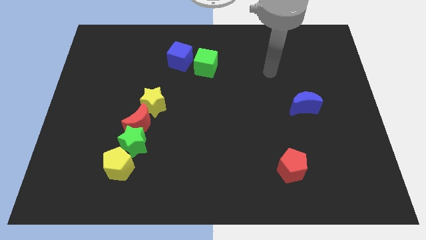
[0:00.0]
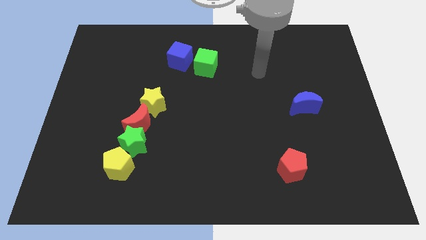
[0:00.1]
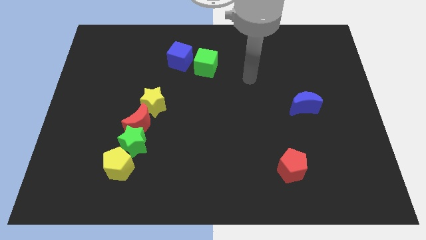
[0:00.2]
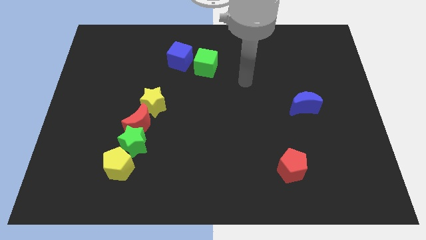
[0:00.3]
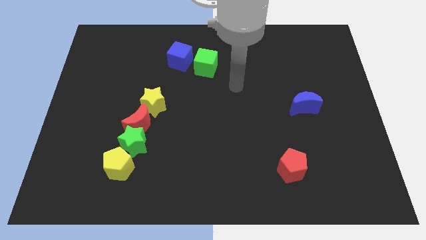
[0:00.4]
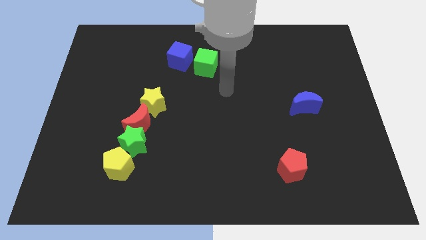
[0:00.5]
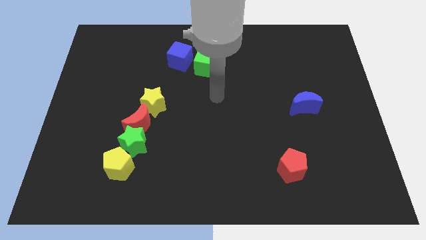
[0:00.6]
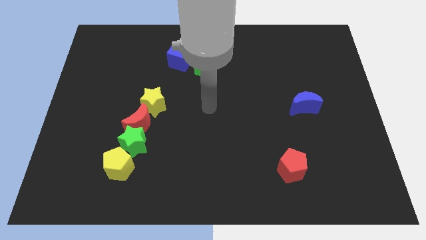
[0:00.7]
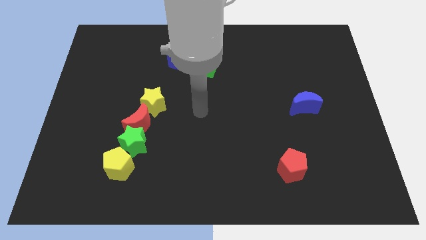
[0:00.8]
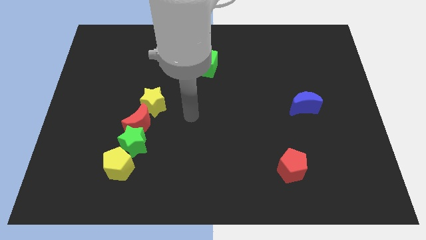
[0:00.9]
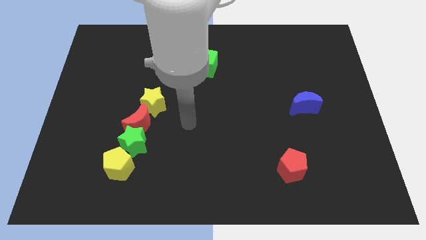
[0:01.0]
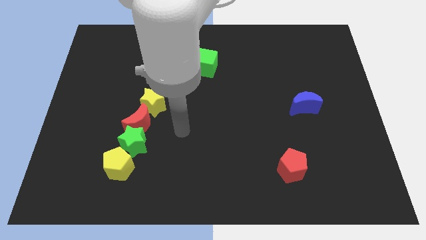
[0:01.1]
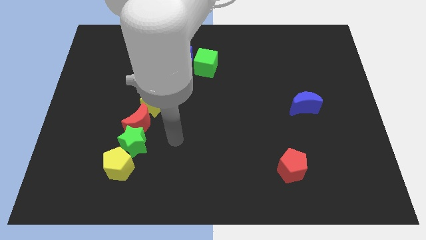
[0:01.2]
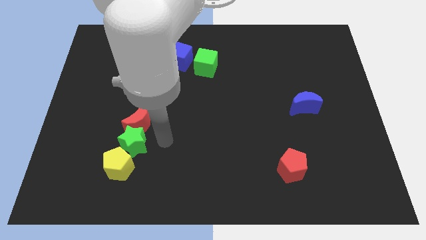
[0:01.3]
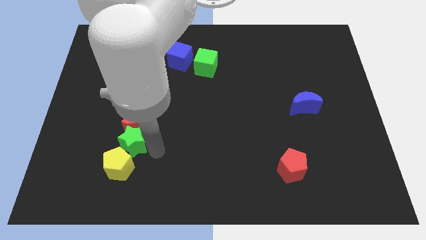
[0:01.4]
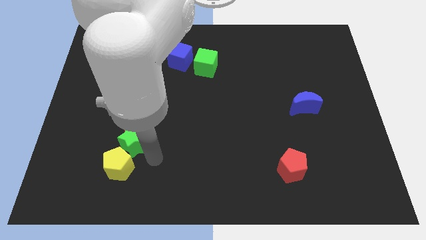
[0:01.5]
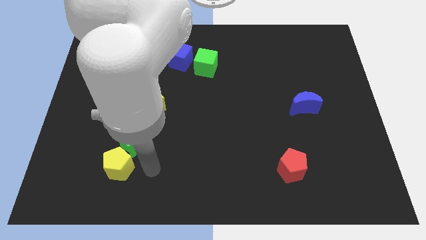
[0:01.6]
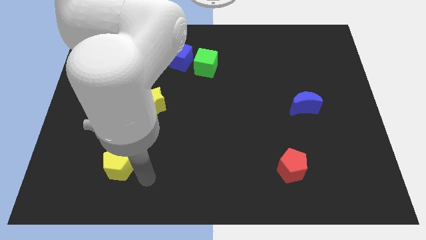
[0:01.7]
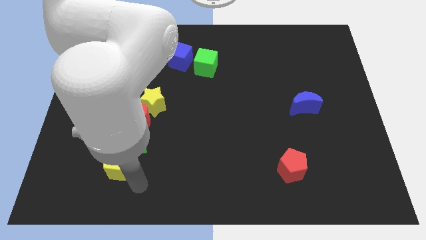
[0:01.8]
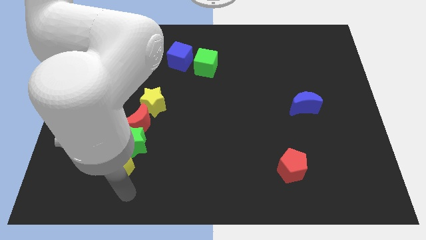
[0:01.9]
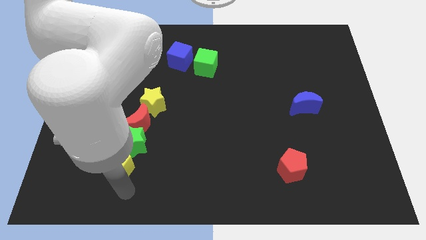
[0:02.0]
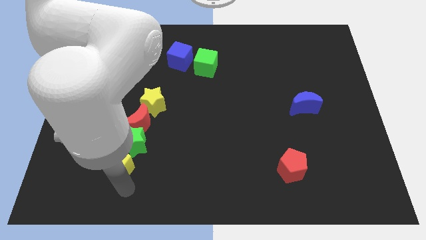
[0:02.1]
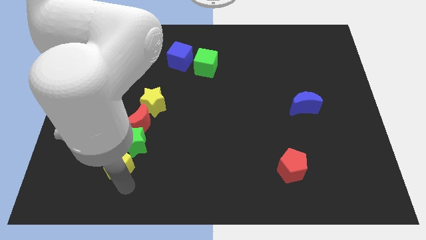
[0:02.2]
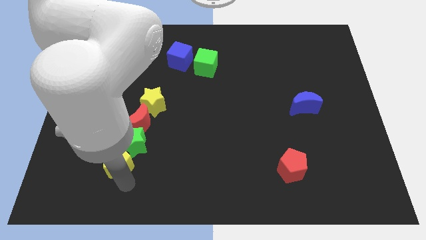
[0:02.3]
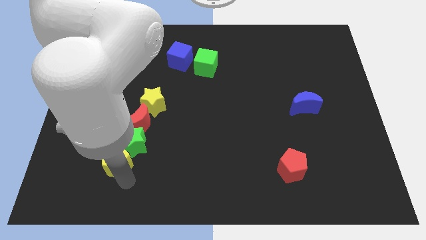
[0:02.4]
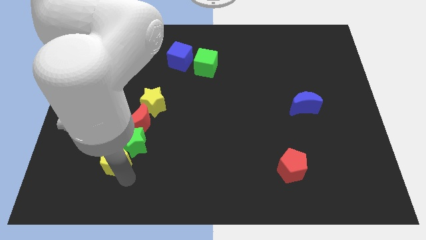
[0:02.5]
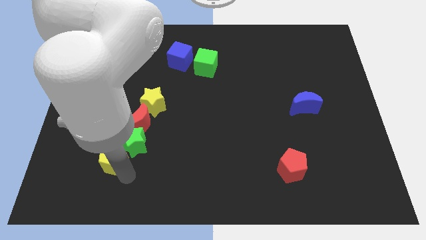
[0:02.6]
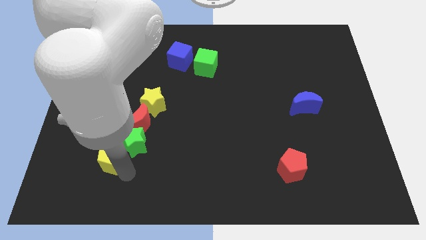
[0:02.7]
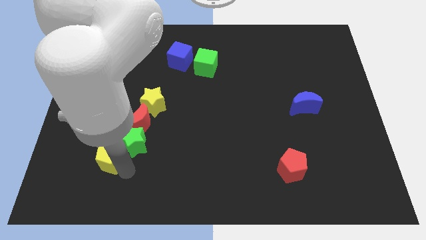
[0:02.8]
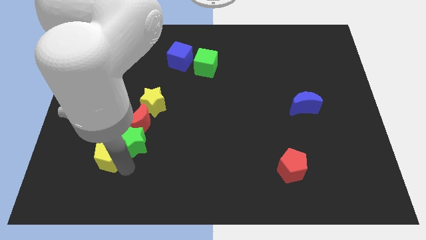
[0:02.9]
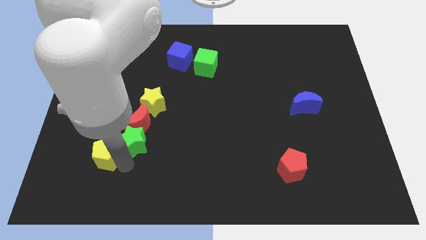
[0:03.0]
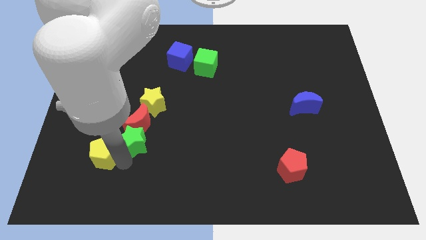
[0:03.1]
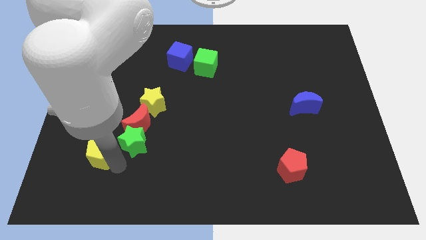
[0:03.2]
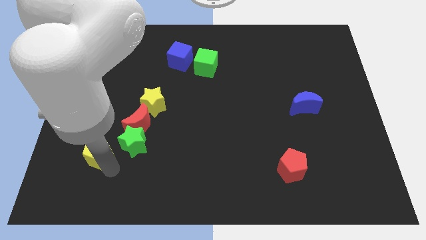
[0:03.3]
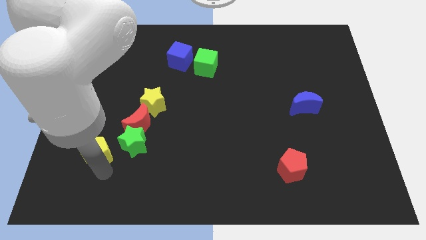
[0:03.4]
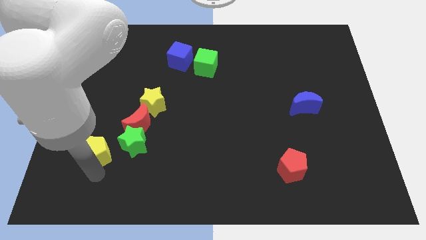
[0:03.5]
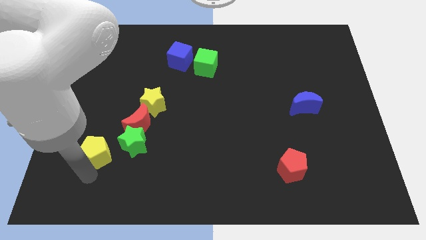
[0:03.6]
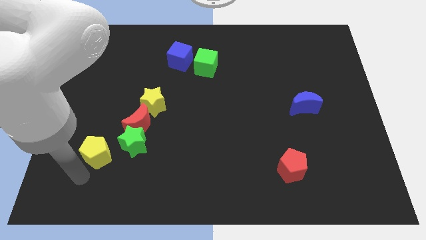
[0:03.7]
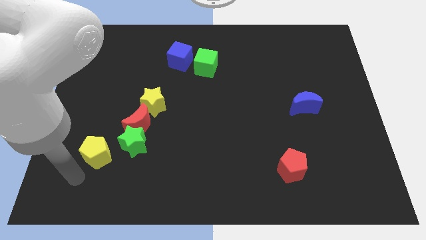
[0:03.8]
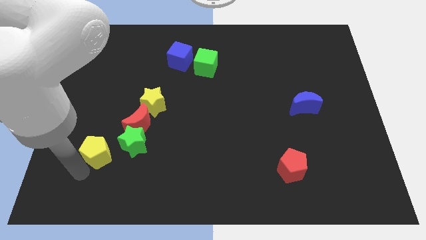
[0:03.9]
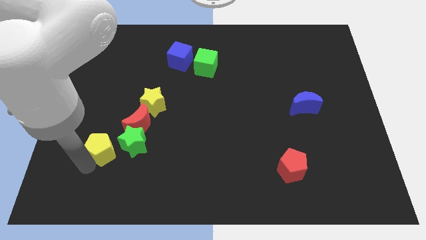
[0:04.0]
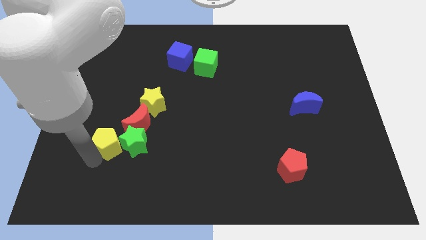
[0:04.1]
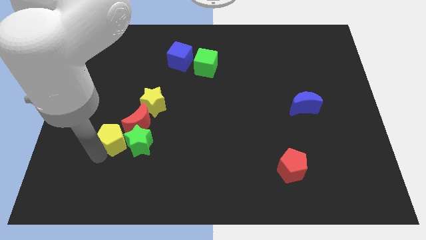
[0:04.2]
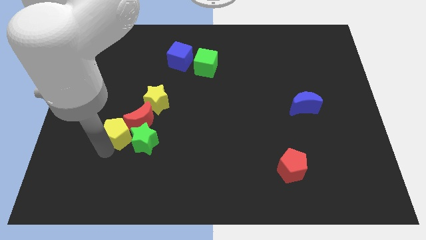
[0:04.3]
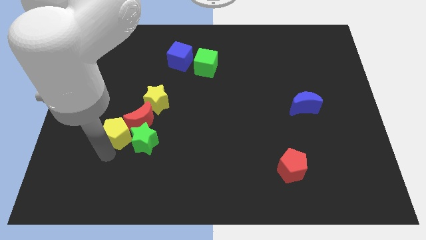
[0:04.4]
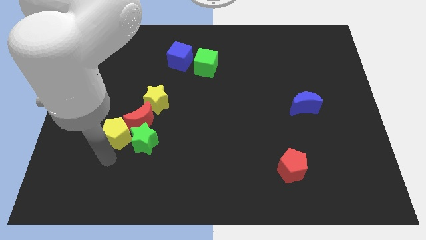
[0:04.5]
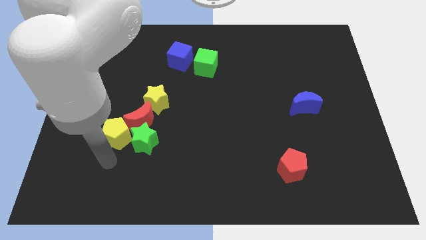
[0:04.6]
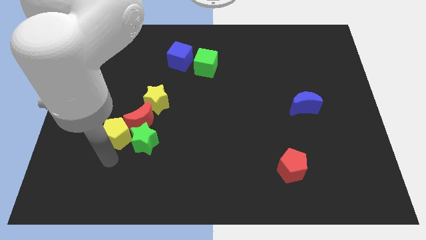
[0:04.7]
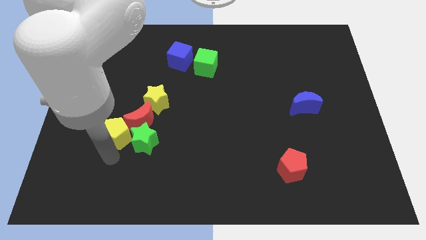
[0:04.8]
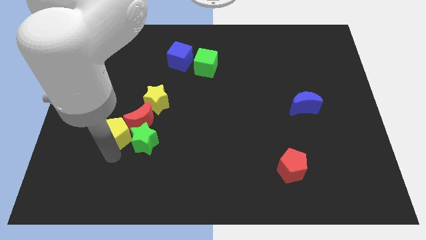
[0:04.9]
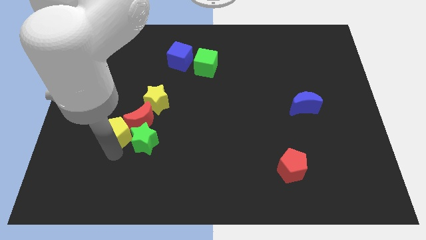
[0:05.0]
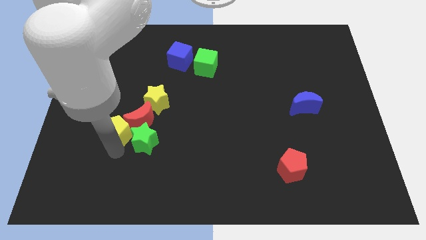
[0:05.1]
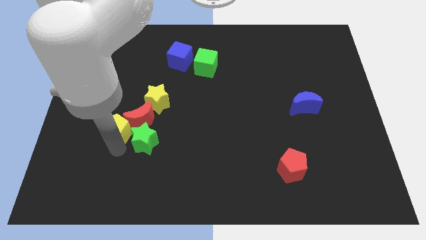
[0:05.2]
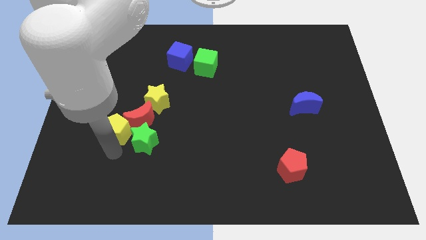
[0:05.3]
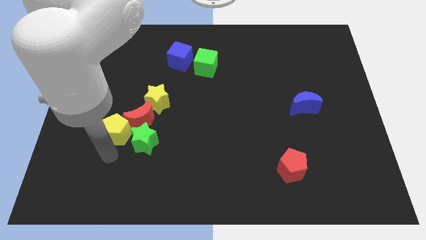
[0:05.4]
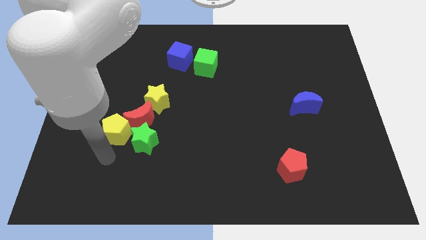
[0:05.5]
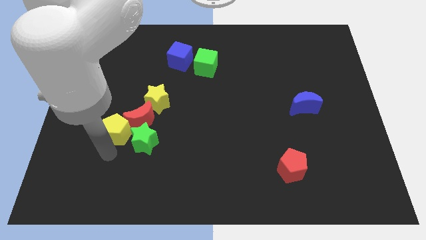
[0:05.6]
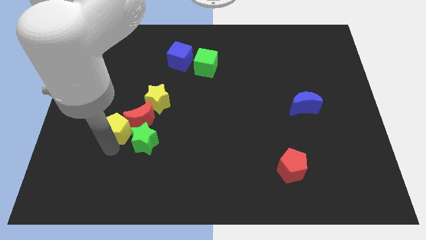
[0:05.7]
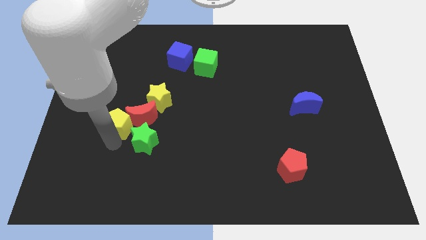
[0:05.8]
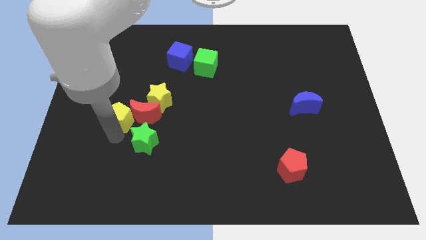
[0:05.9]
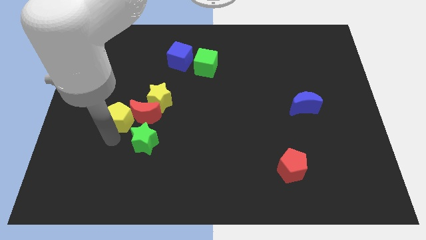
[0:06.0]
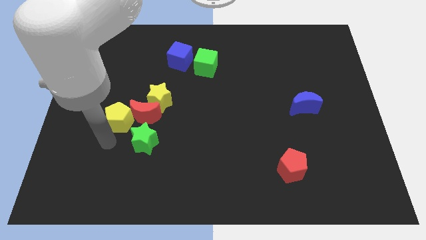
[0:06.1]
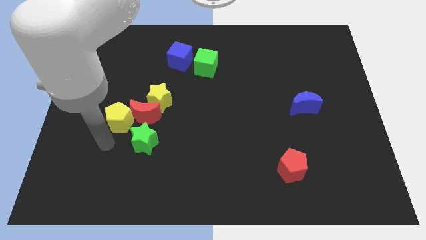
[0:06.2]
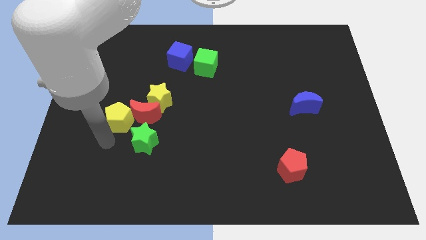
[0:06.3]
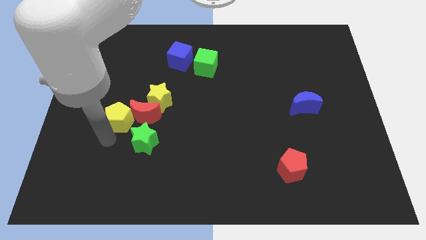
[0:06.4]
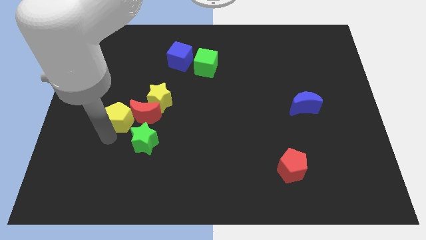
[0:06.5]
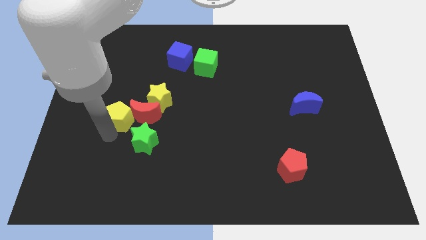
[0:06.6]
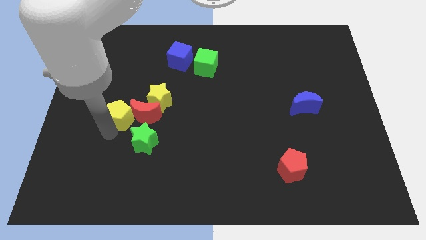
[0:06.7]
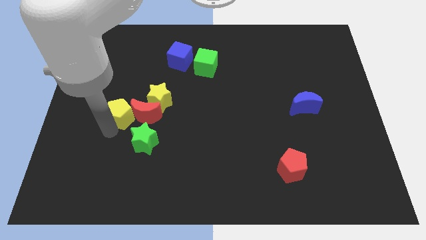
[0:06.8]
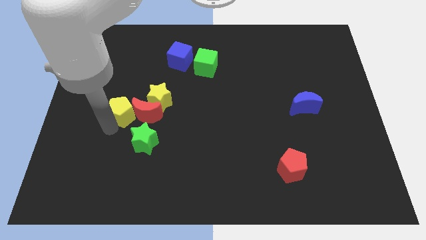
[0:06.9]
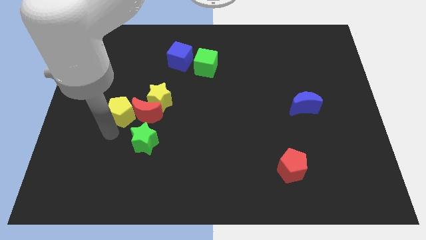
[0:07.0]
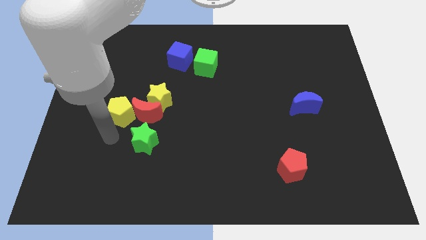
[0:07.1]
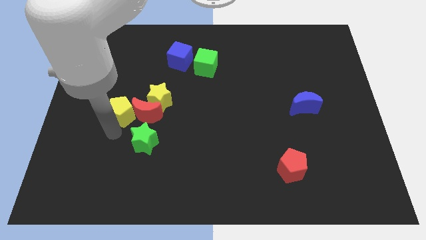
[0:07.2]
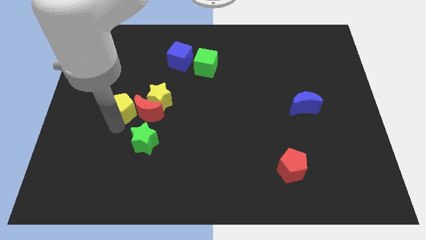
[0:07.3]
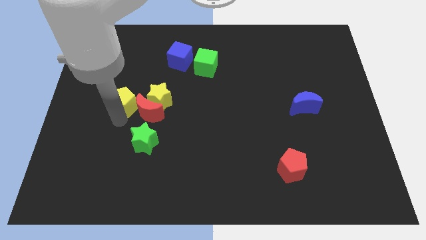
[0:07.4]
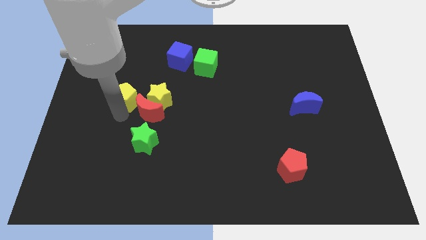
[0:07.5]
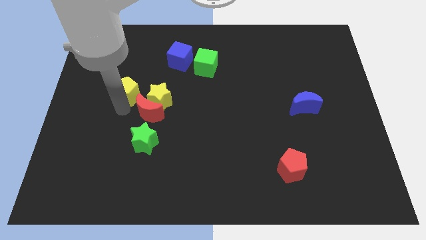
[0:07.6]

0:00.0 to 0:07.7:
push the yellow pentagon upwards

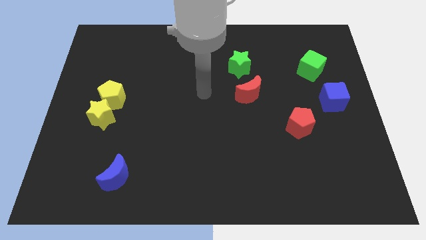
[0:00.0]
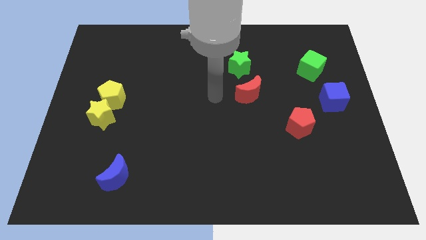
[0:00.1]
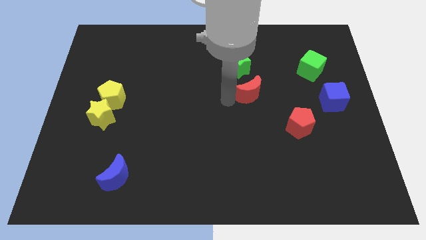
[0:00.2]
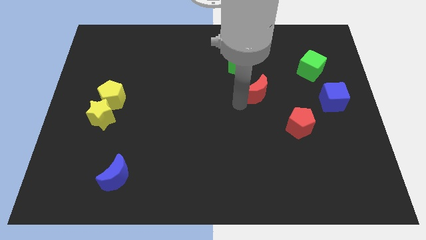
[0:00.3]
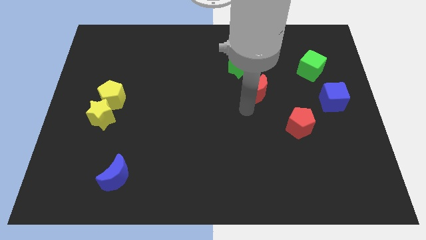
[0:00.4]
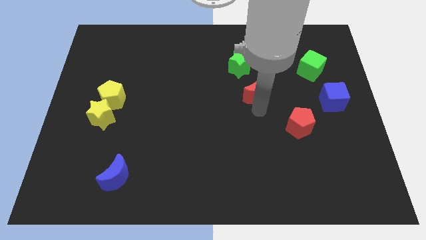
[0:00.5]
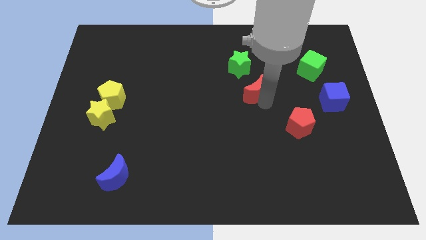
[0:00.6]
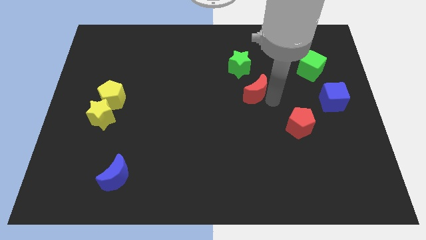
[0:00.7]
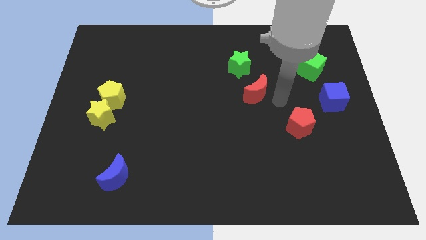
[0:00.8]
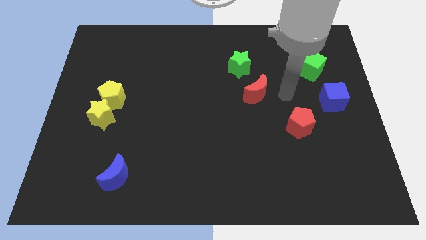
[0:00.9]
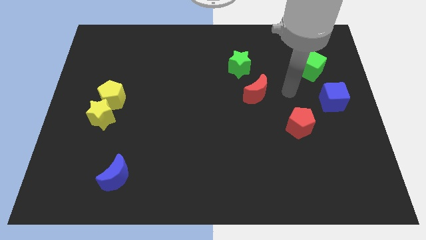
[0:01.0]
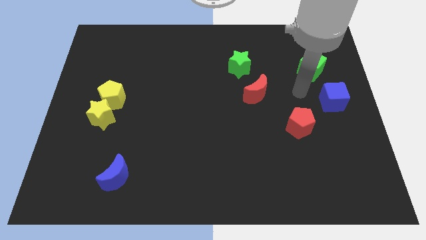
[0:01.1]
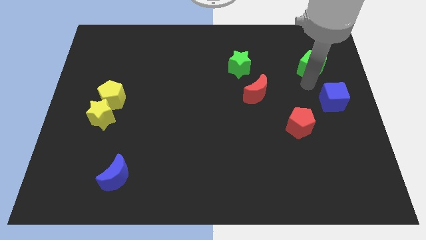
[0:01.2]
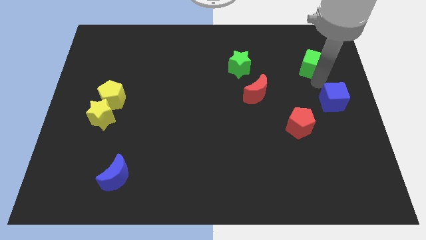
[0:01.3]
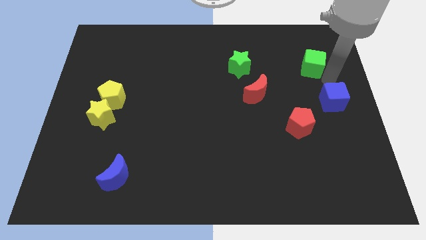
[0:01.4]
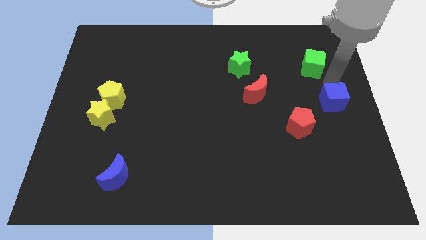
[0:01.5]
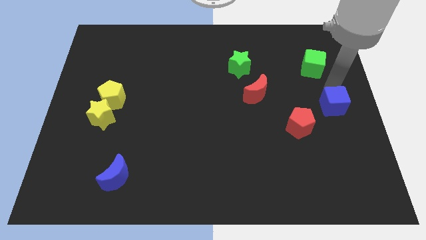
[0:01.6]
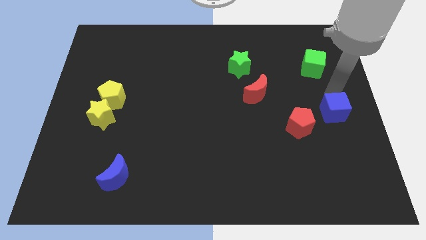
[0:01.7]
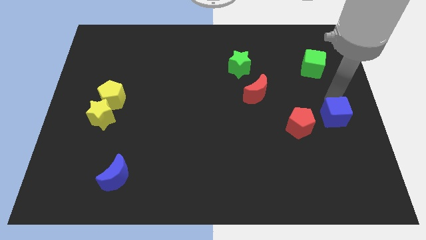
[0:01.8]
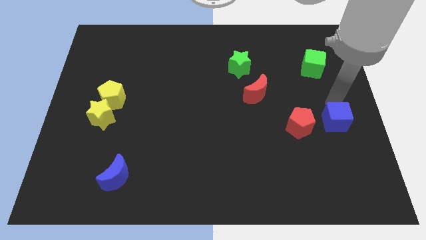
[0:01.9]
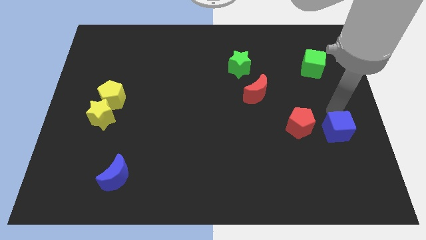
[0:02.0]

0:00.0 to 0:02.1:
slightly move the blue cube down
